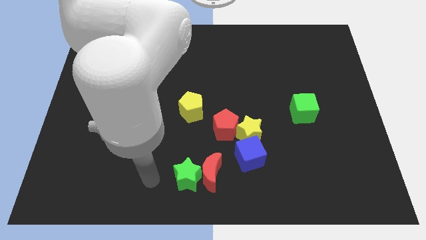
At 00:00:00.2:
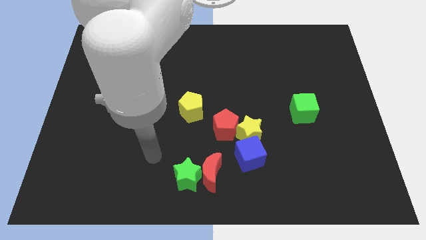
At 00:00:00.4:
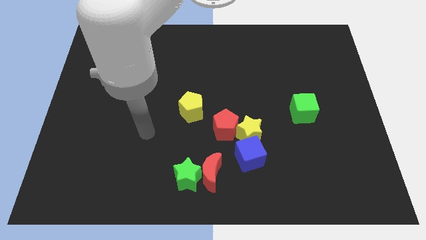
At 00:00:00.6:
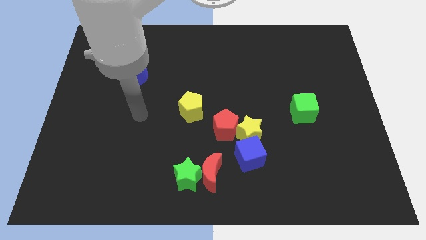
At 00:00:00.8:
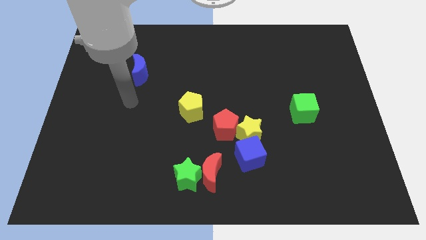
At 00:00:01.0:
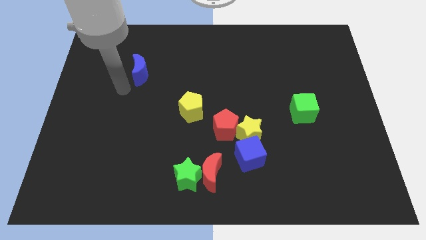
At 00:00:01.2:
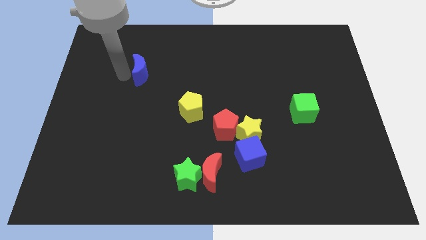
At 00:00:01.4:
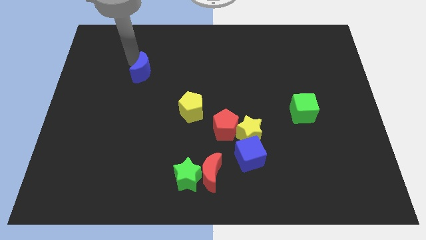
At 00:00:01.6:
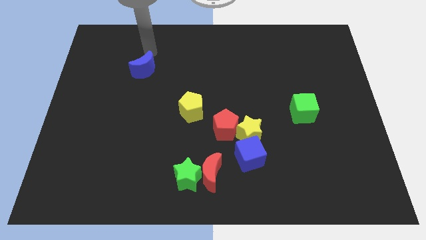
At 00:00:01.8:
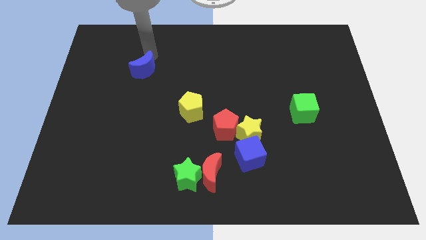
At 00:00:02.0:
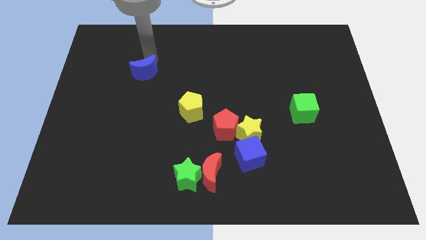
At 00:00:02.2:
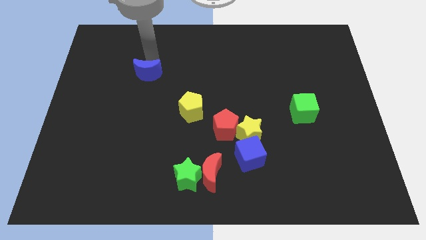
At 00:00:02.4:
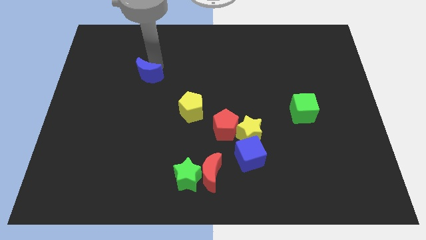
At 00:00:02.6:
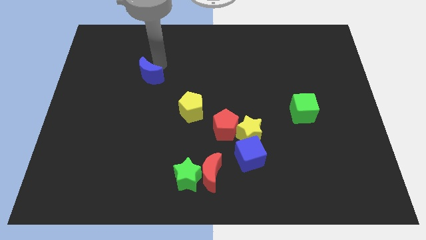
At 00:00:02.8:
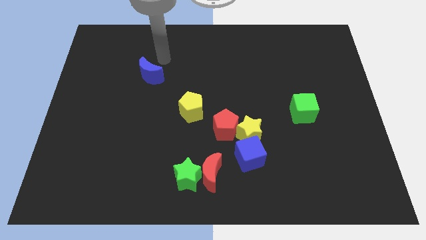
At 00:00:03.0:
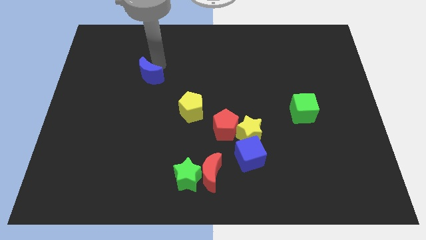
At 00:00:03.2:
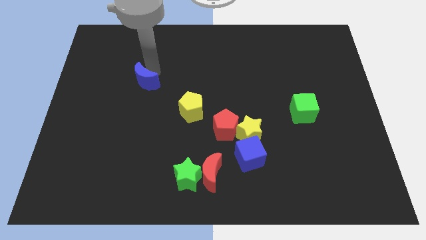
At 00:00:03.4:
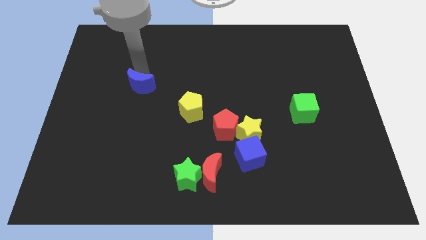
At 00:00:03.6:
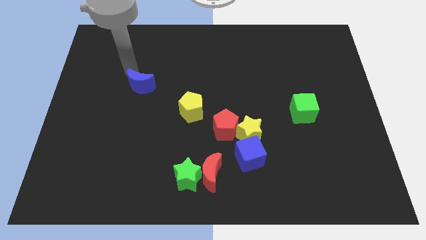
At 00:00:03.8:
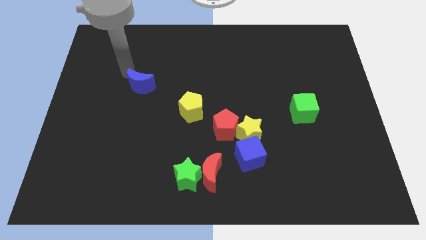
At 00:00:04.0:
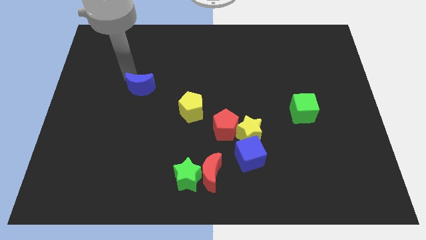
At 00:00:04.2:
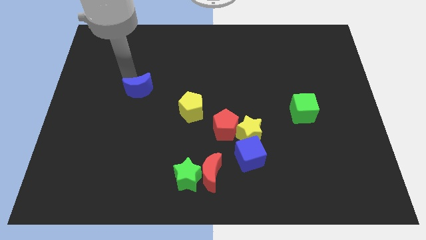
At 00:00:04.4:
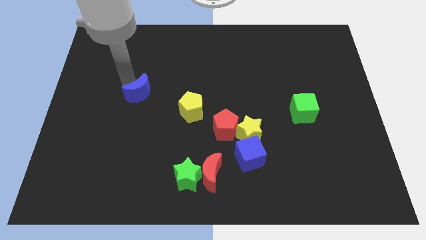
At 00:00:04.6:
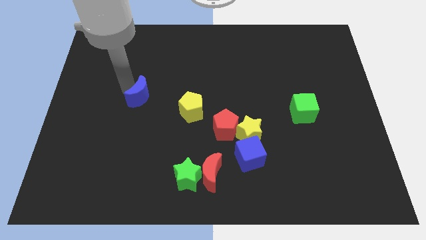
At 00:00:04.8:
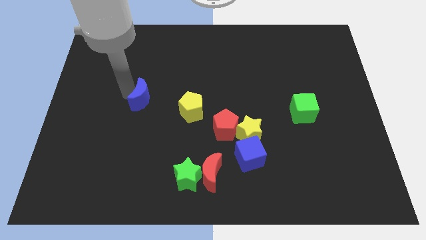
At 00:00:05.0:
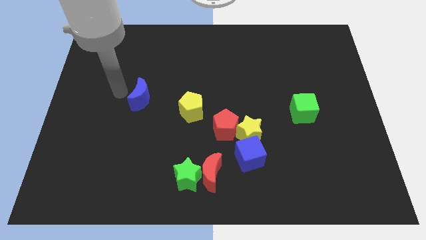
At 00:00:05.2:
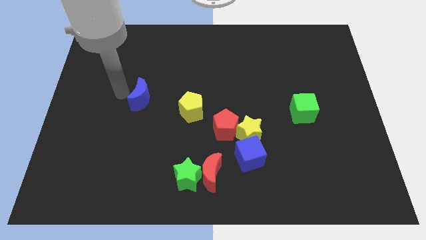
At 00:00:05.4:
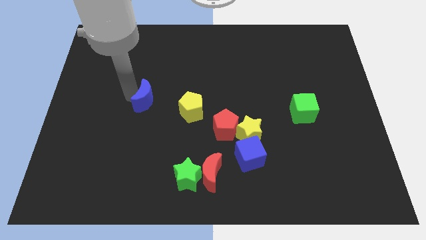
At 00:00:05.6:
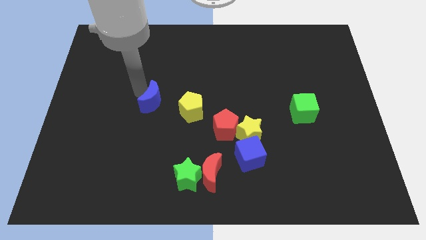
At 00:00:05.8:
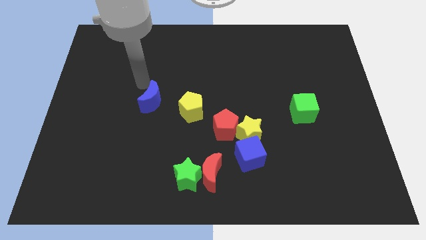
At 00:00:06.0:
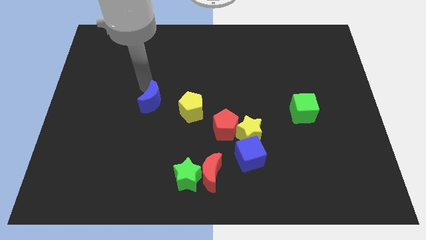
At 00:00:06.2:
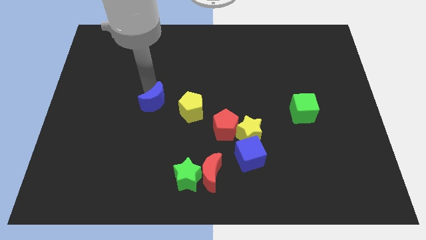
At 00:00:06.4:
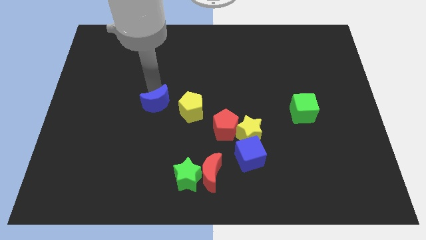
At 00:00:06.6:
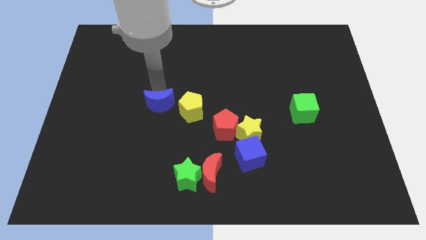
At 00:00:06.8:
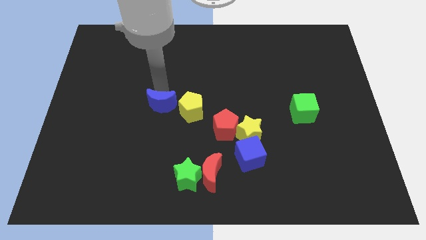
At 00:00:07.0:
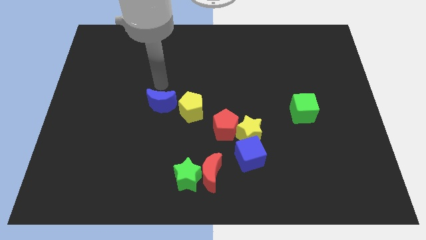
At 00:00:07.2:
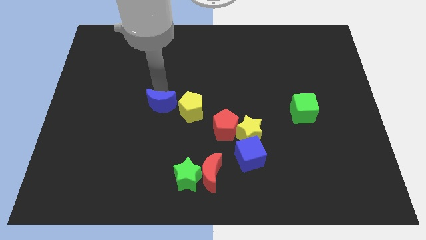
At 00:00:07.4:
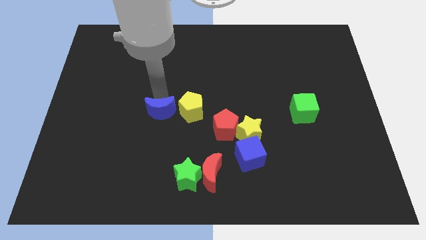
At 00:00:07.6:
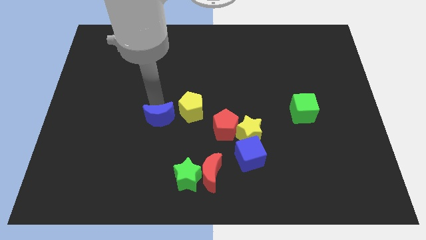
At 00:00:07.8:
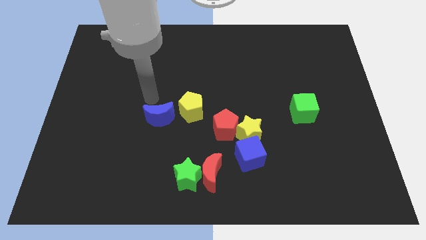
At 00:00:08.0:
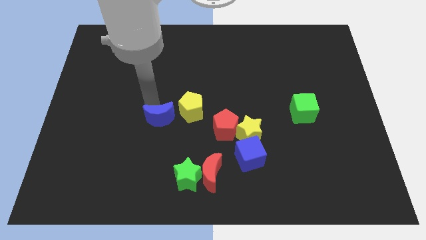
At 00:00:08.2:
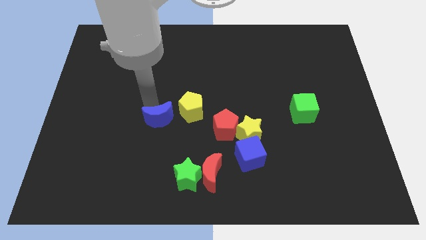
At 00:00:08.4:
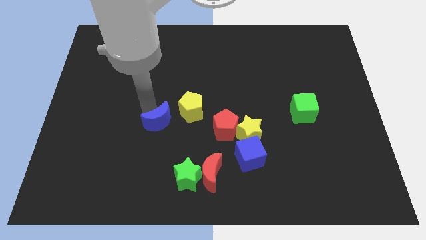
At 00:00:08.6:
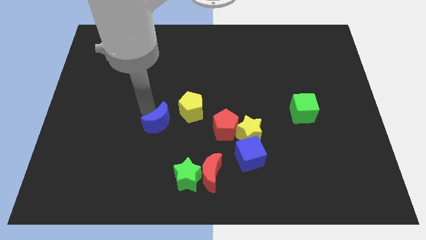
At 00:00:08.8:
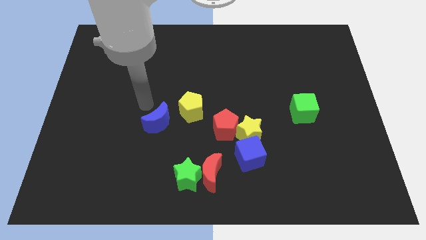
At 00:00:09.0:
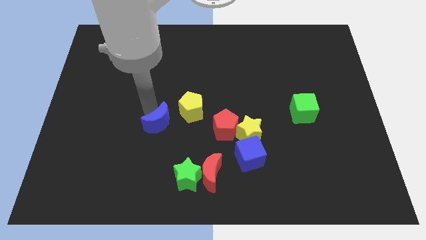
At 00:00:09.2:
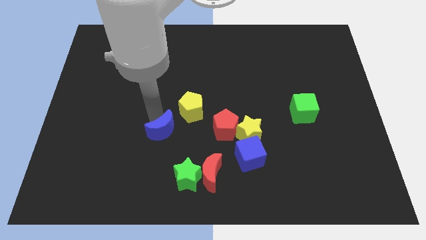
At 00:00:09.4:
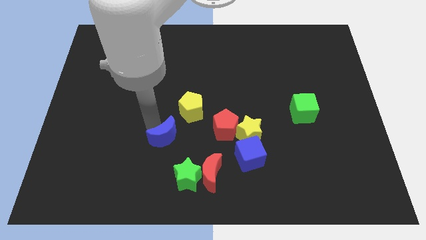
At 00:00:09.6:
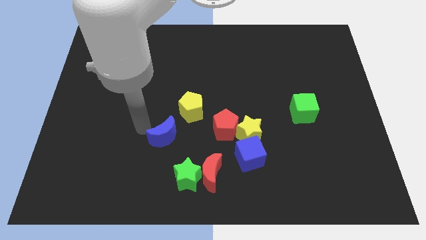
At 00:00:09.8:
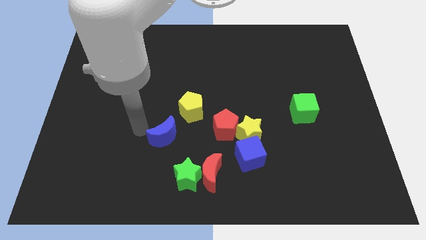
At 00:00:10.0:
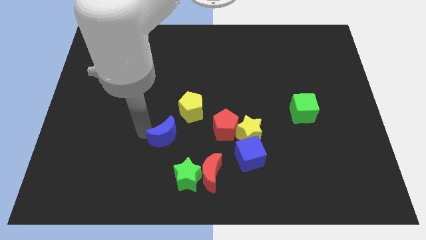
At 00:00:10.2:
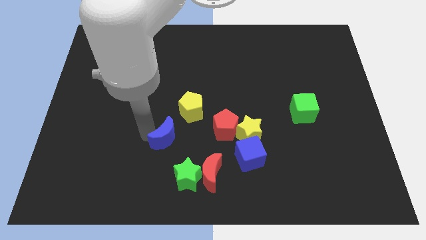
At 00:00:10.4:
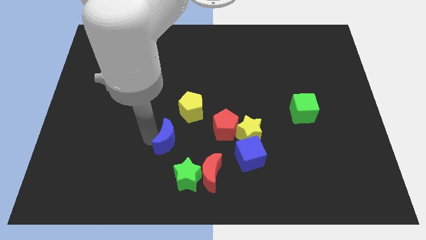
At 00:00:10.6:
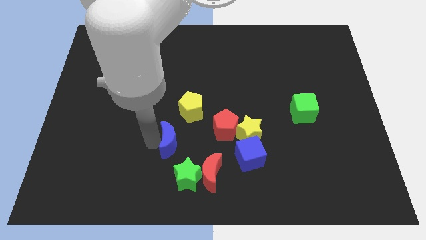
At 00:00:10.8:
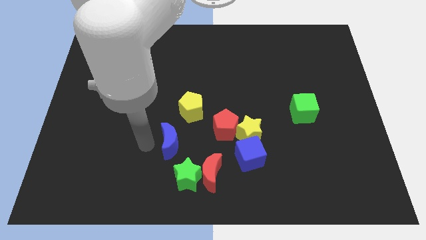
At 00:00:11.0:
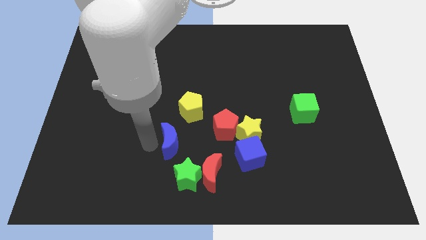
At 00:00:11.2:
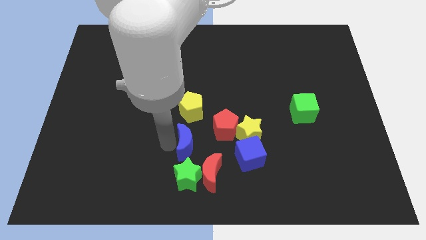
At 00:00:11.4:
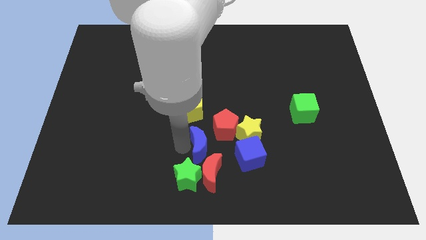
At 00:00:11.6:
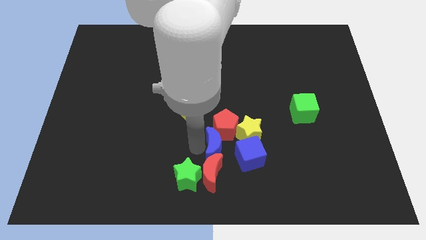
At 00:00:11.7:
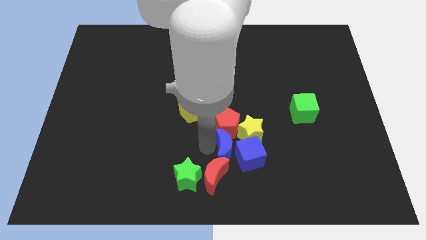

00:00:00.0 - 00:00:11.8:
move the blue moon next to the blue cube

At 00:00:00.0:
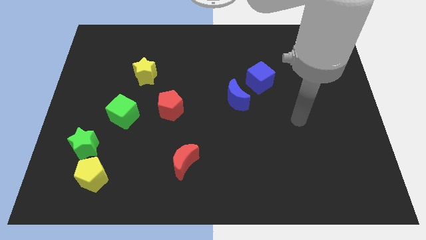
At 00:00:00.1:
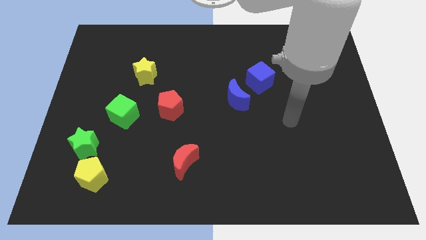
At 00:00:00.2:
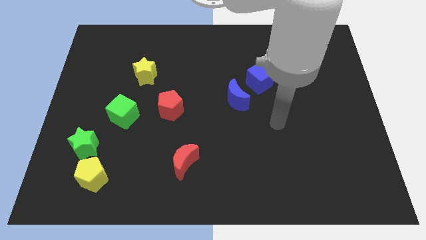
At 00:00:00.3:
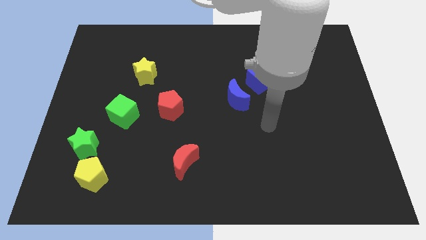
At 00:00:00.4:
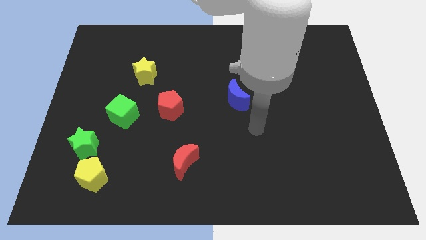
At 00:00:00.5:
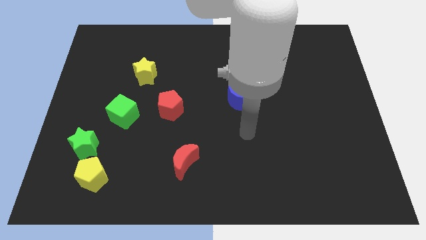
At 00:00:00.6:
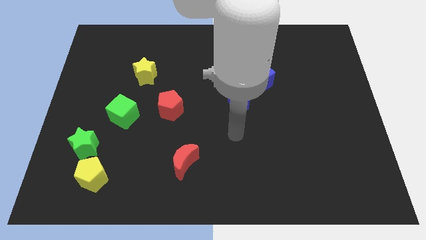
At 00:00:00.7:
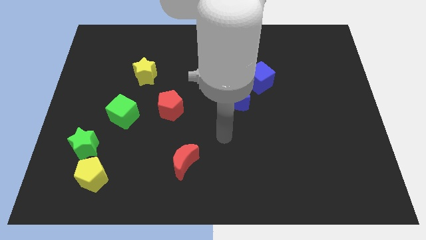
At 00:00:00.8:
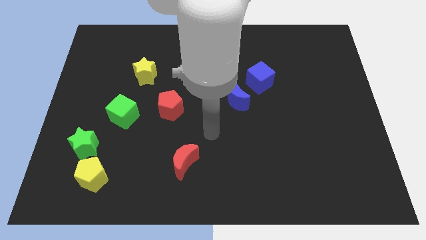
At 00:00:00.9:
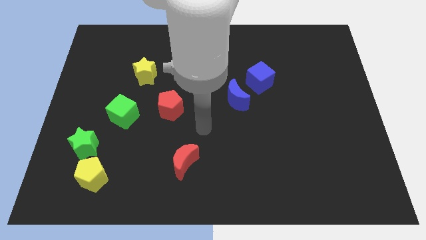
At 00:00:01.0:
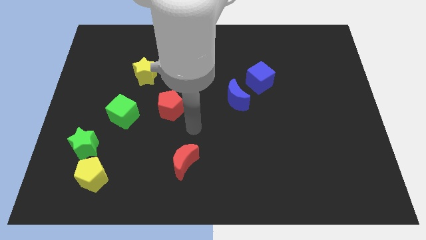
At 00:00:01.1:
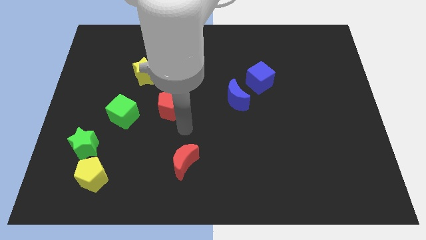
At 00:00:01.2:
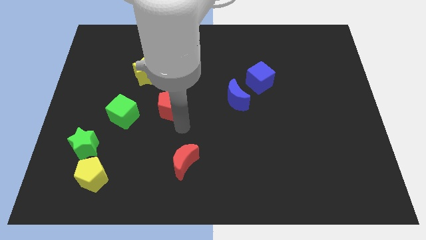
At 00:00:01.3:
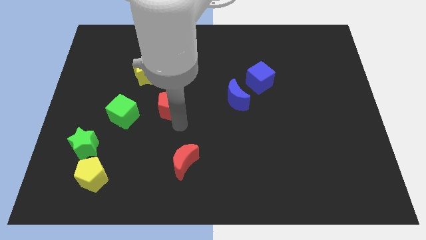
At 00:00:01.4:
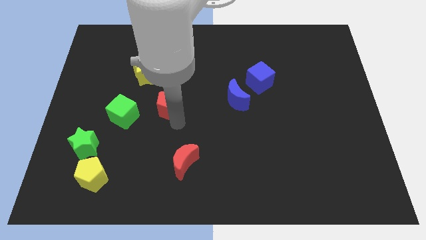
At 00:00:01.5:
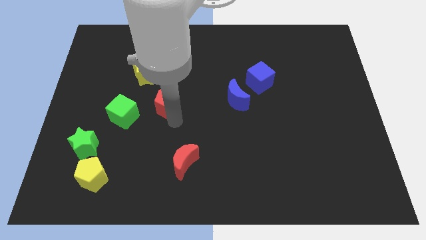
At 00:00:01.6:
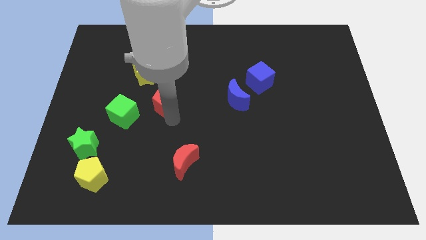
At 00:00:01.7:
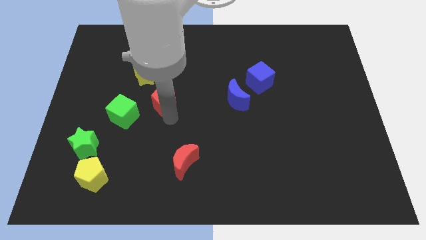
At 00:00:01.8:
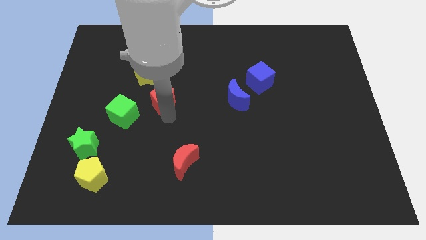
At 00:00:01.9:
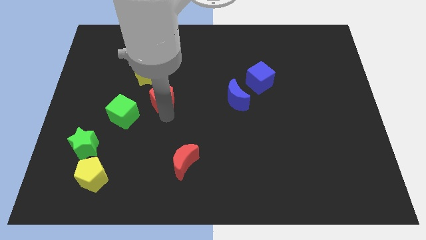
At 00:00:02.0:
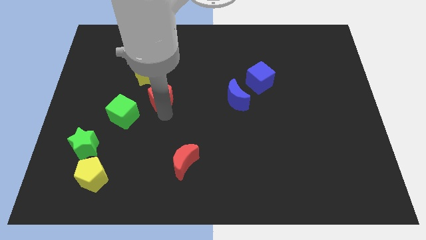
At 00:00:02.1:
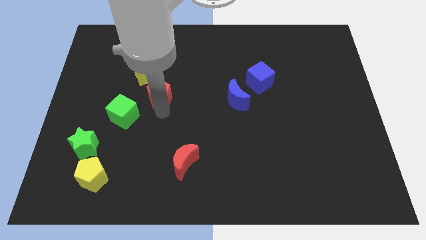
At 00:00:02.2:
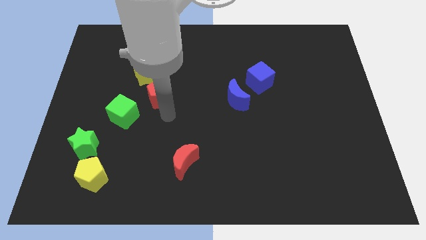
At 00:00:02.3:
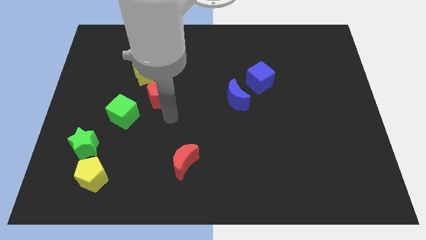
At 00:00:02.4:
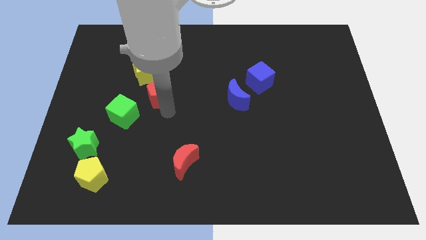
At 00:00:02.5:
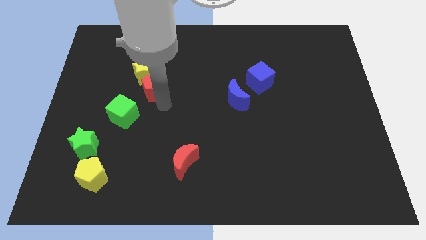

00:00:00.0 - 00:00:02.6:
put the red pentagon towards the yellow star
